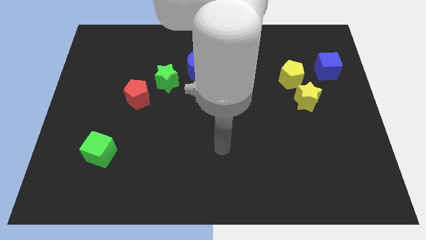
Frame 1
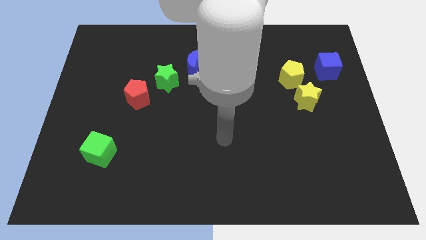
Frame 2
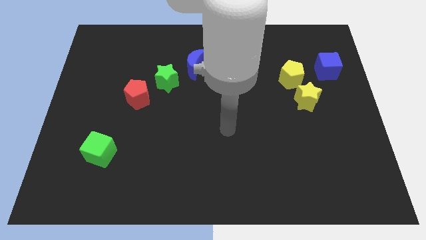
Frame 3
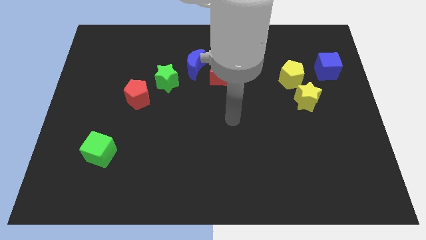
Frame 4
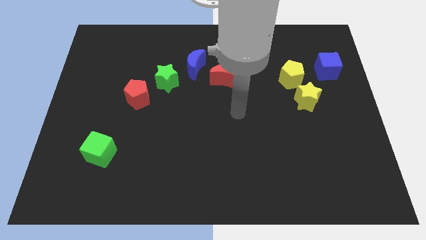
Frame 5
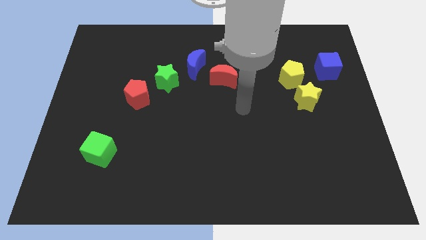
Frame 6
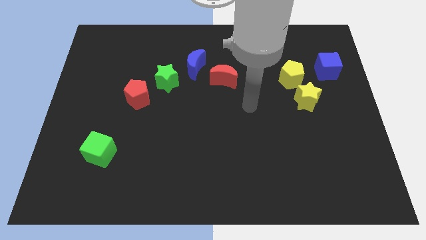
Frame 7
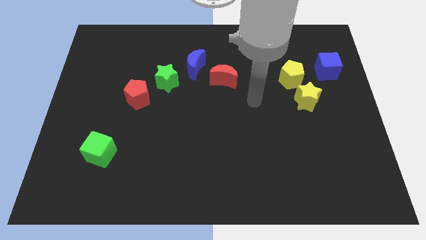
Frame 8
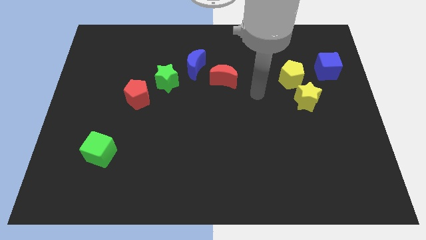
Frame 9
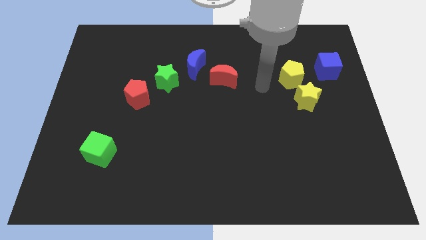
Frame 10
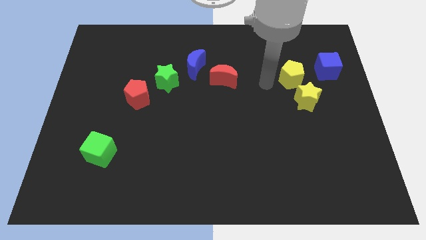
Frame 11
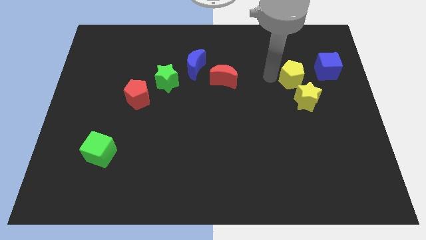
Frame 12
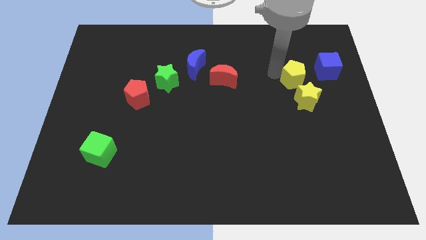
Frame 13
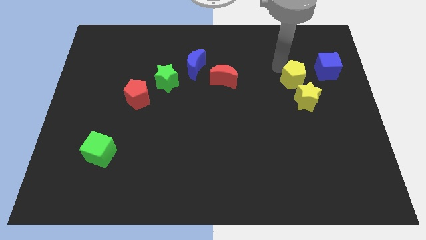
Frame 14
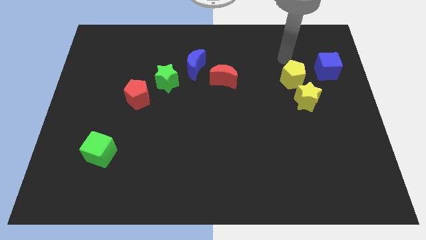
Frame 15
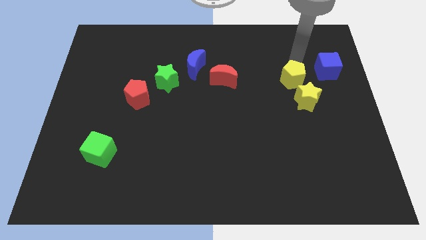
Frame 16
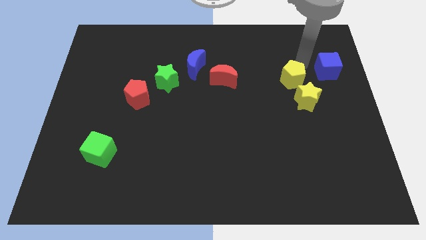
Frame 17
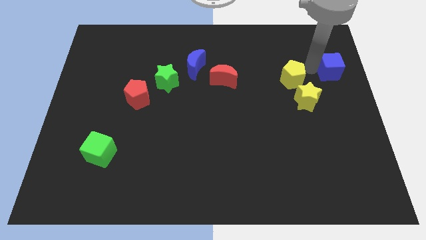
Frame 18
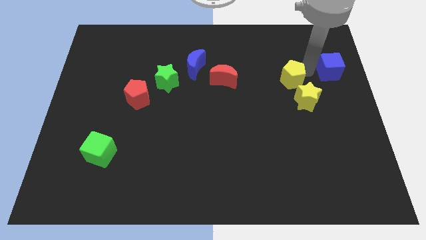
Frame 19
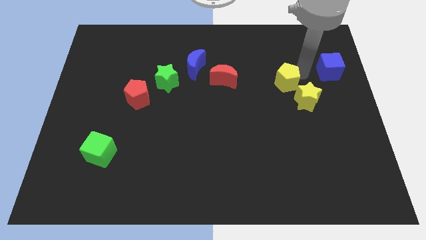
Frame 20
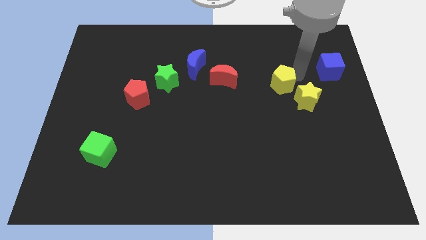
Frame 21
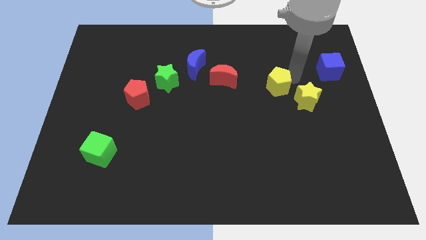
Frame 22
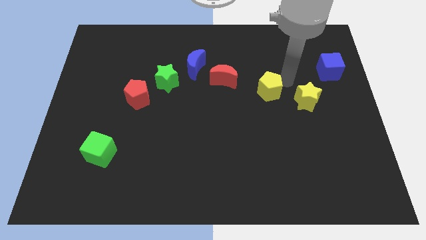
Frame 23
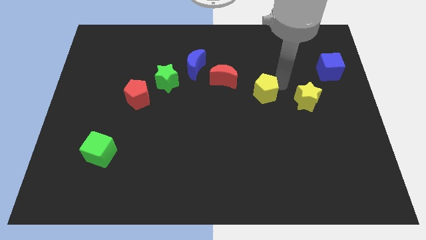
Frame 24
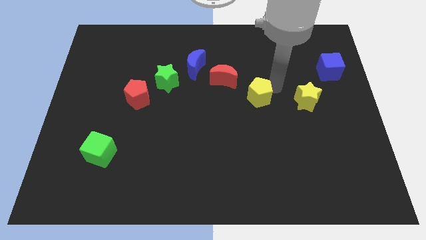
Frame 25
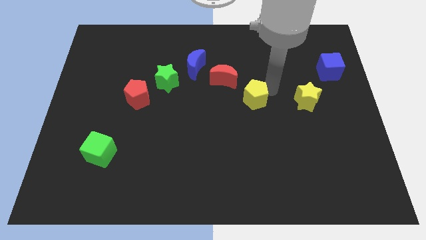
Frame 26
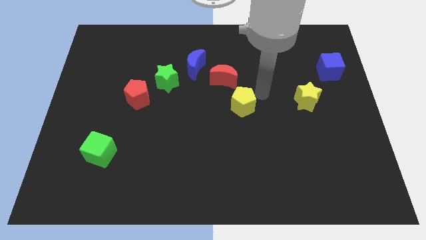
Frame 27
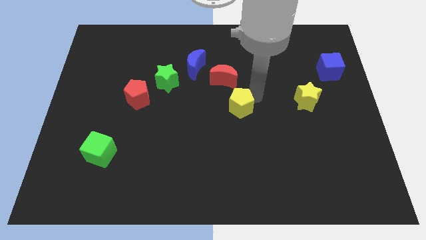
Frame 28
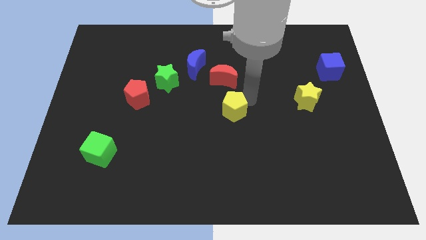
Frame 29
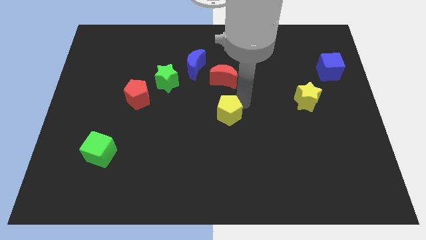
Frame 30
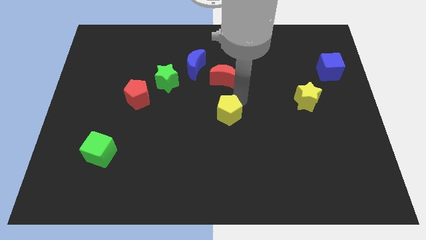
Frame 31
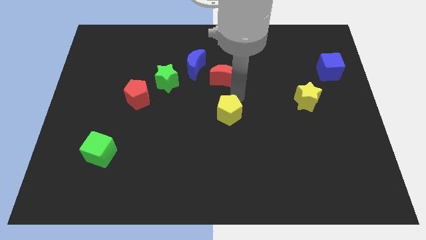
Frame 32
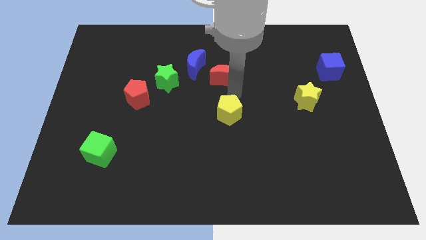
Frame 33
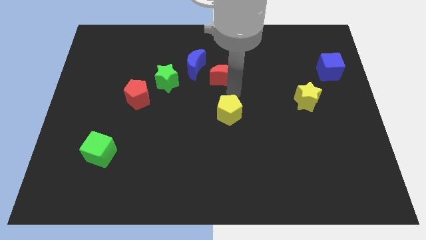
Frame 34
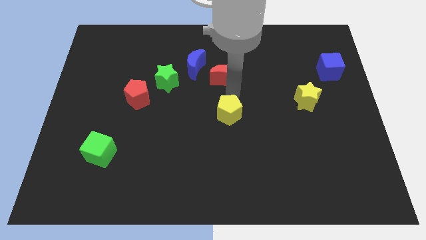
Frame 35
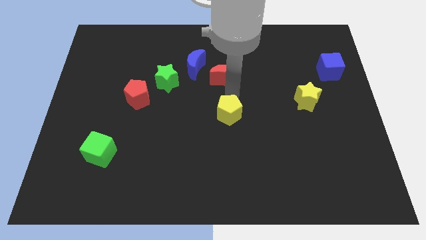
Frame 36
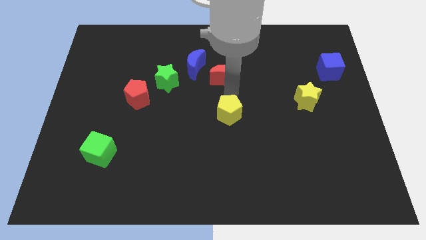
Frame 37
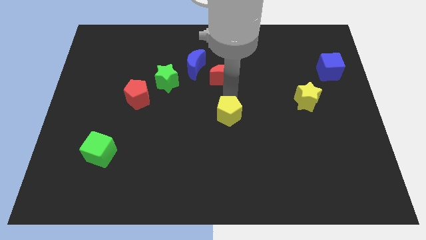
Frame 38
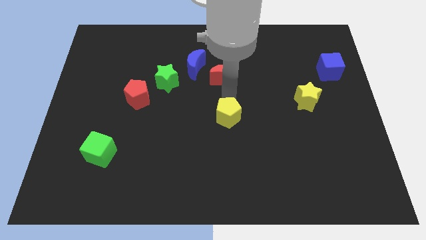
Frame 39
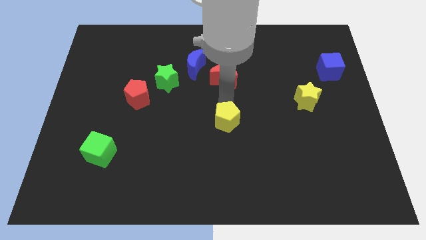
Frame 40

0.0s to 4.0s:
move the yellow pentagon diagonally down and to the left

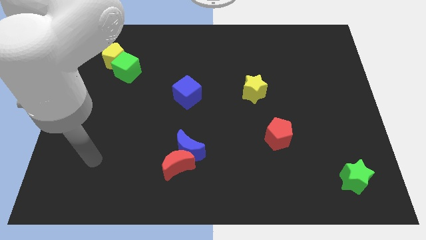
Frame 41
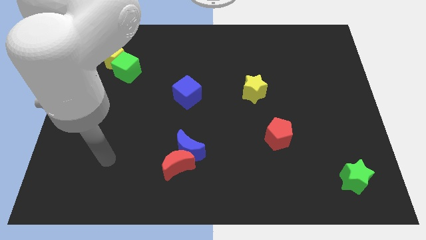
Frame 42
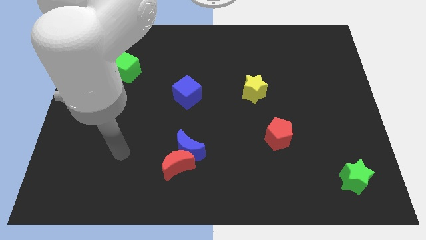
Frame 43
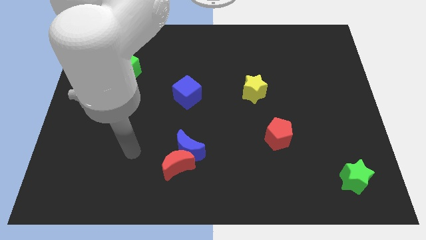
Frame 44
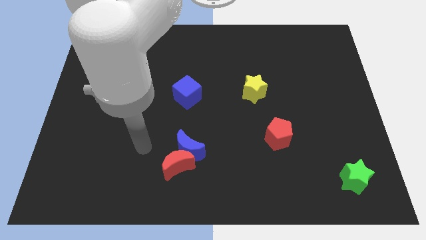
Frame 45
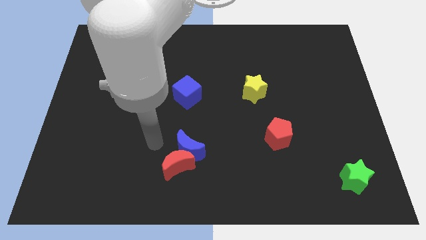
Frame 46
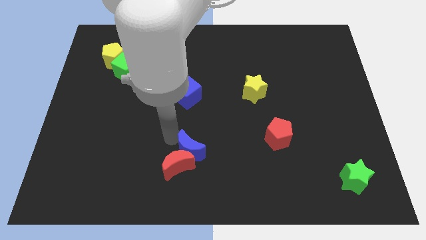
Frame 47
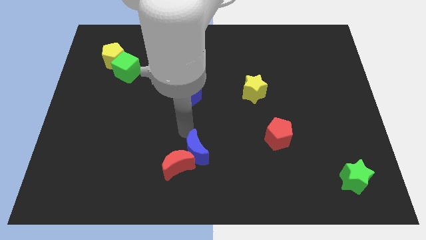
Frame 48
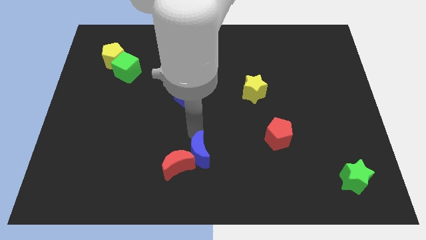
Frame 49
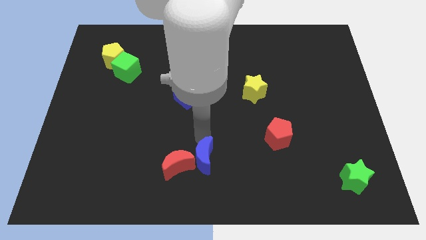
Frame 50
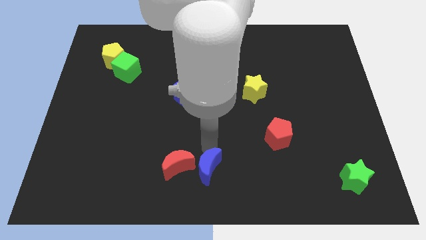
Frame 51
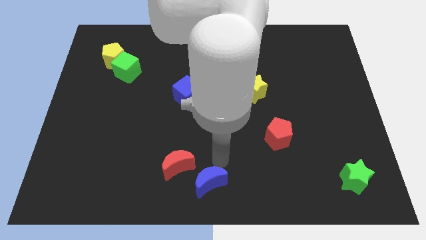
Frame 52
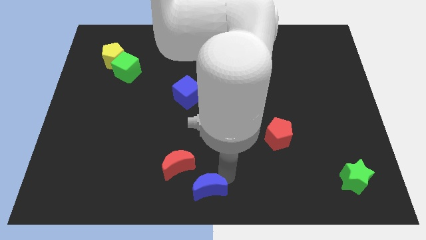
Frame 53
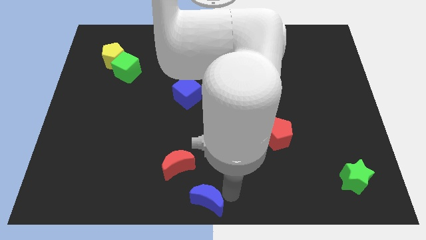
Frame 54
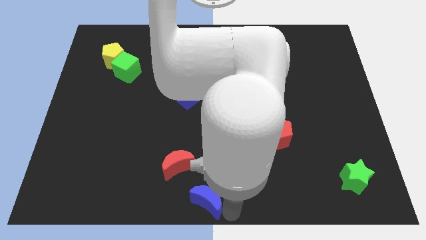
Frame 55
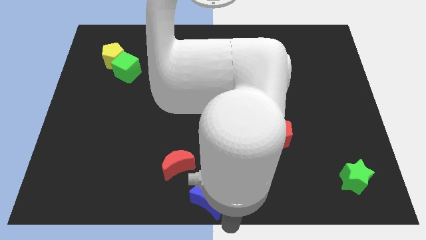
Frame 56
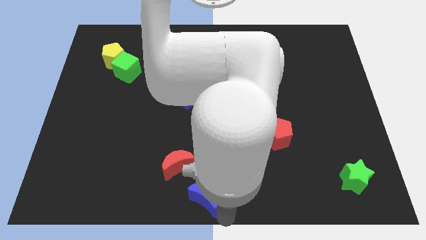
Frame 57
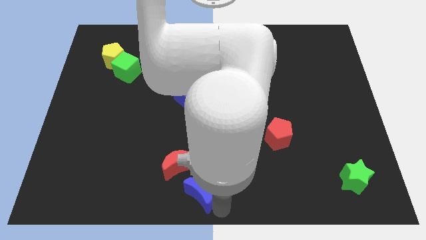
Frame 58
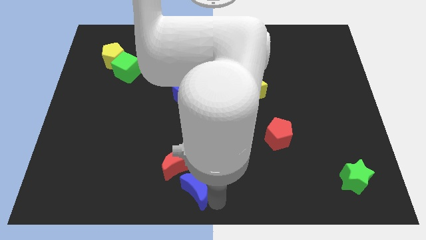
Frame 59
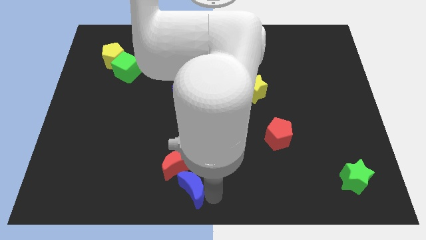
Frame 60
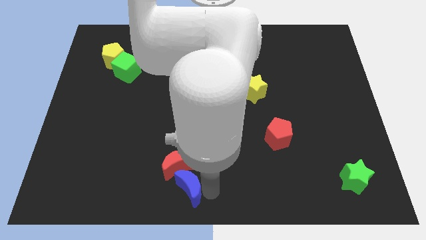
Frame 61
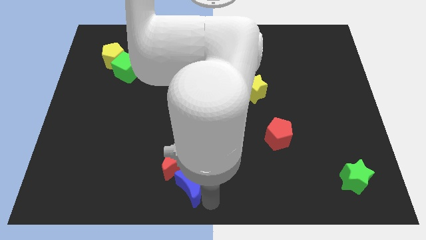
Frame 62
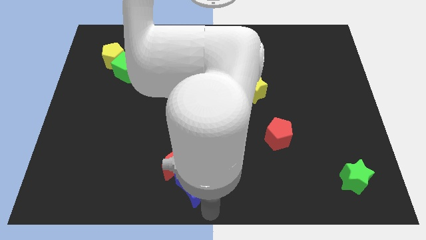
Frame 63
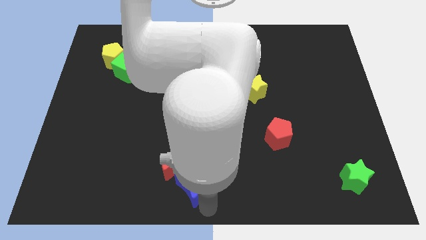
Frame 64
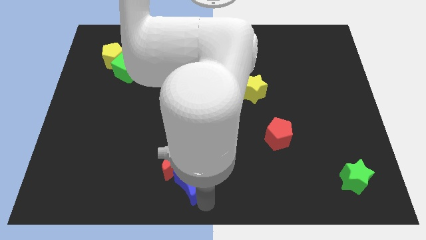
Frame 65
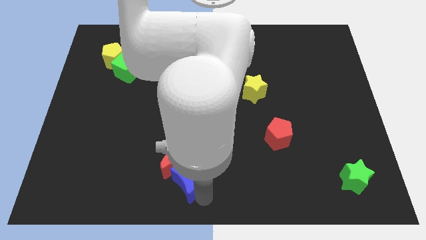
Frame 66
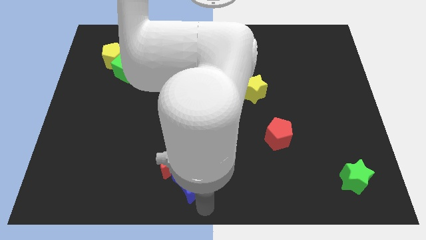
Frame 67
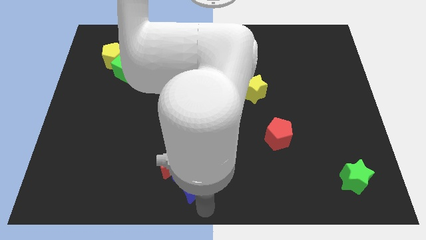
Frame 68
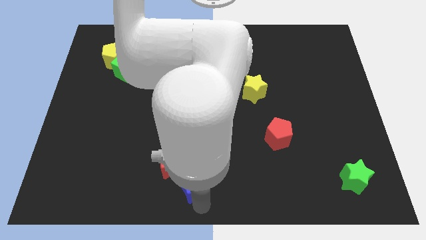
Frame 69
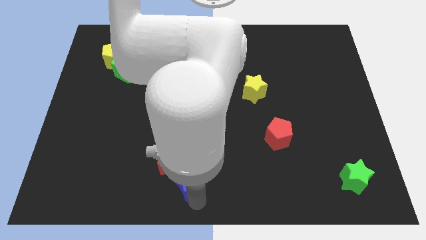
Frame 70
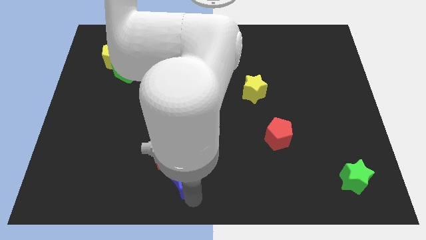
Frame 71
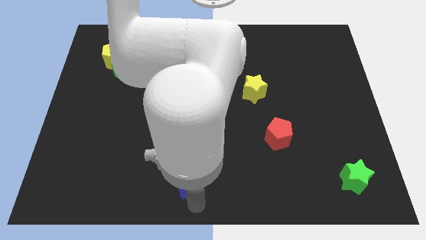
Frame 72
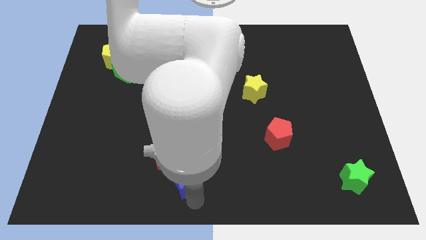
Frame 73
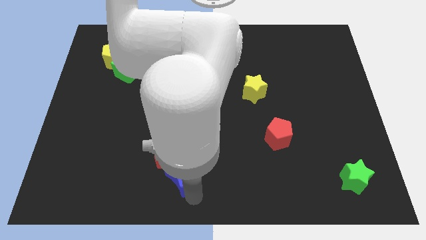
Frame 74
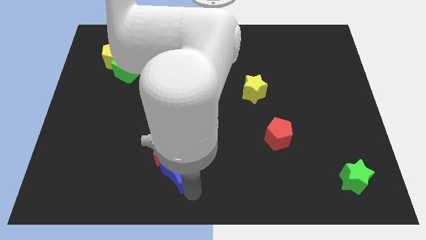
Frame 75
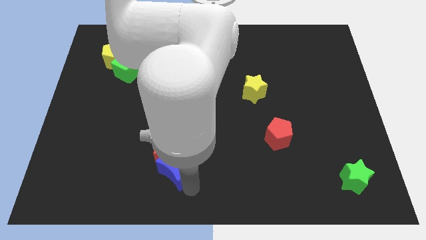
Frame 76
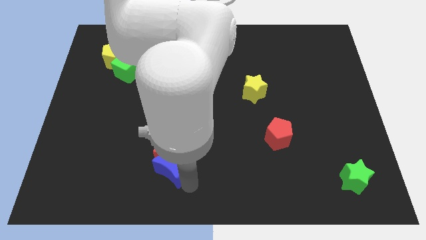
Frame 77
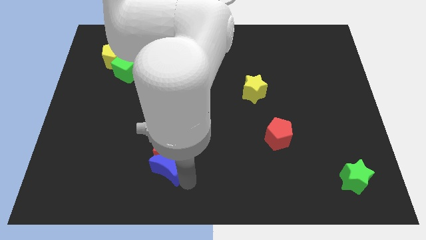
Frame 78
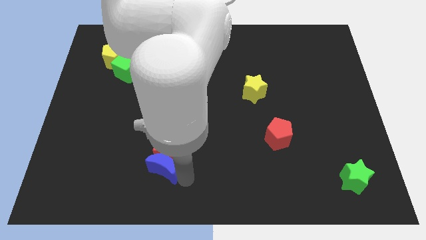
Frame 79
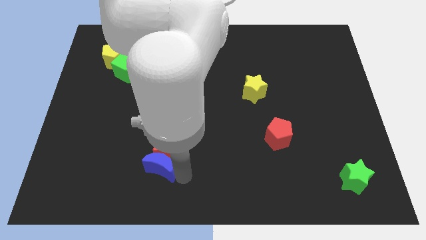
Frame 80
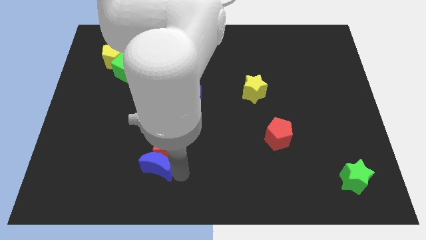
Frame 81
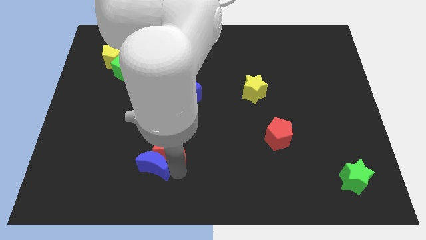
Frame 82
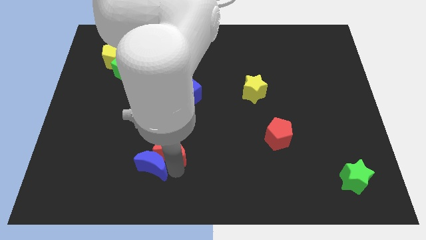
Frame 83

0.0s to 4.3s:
move the blue moon a little to the left

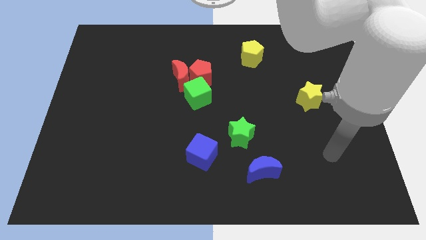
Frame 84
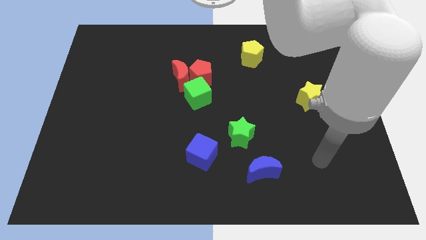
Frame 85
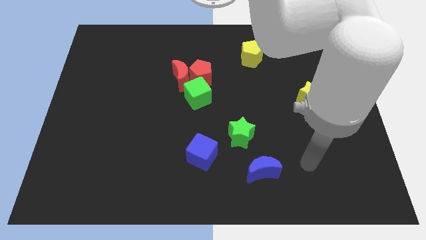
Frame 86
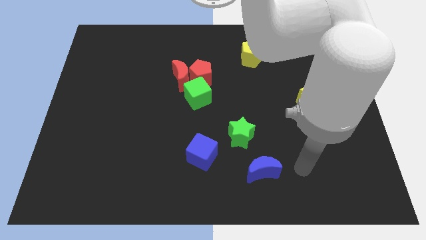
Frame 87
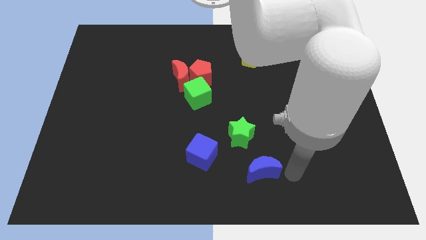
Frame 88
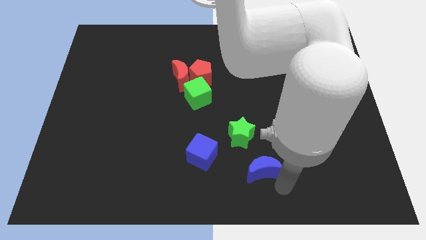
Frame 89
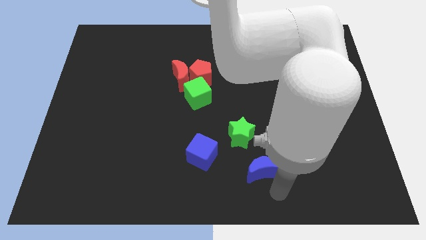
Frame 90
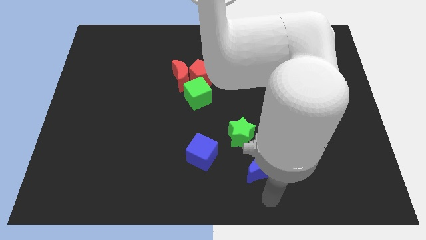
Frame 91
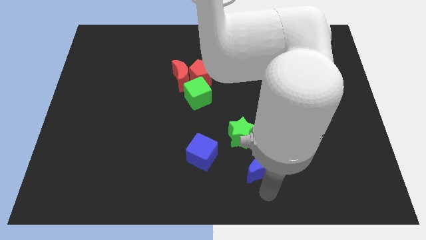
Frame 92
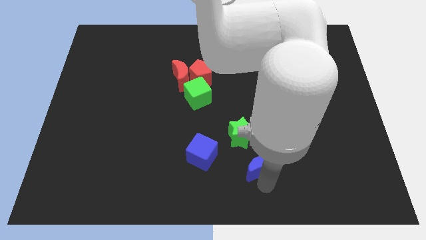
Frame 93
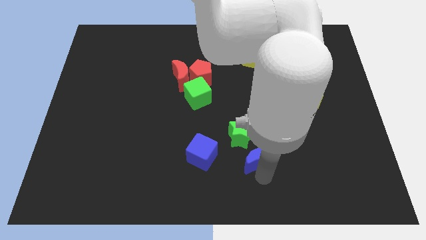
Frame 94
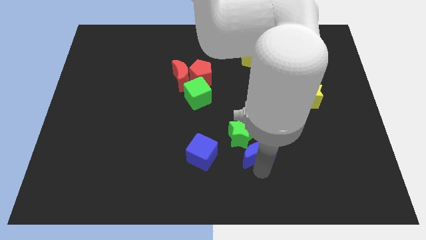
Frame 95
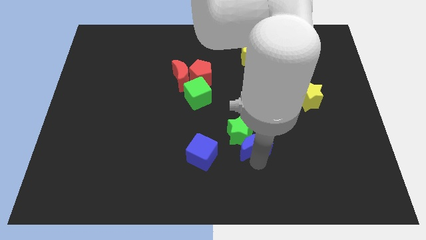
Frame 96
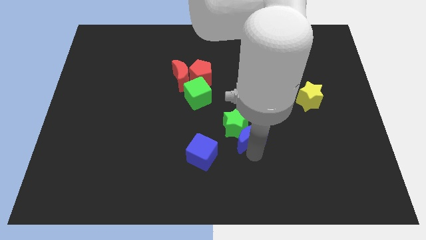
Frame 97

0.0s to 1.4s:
slightly slide the blue moon up
